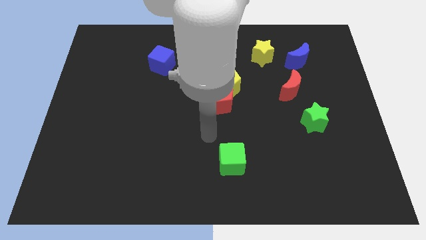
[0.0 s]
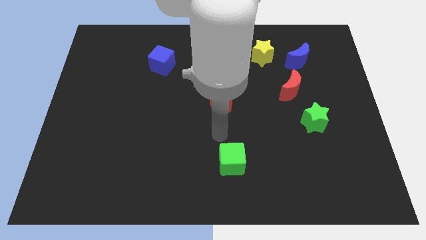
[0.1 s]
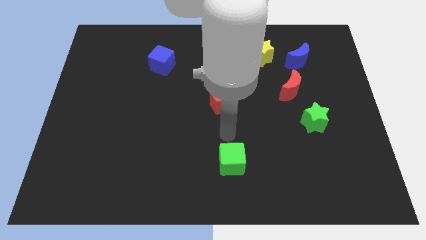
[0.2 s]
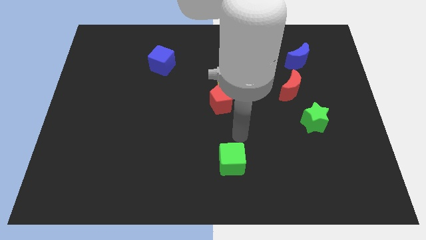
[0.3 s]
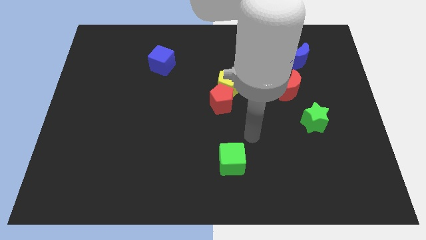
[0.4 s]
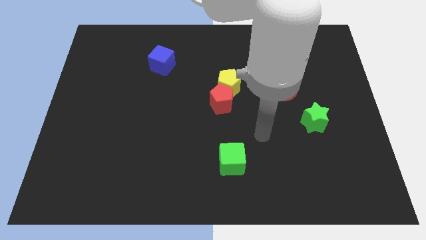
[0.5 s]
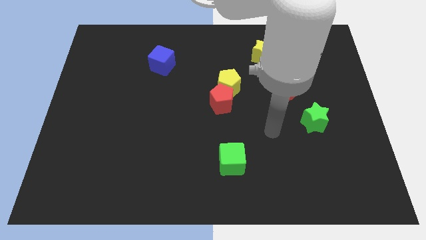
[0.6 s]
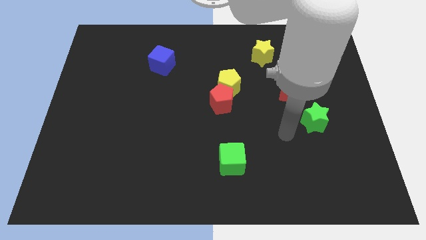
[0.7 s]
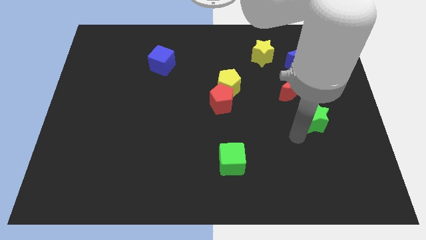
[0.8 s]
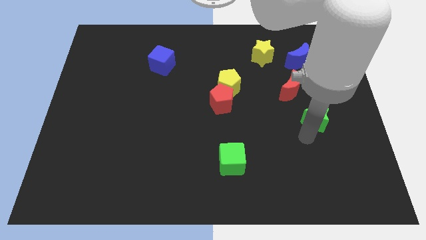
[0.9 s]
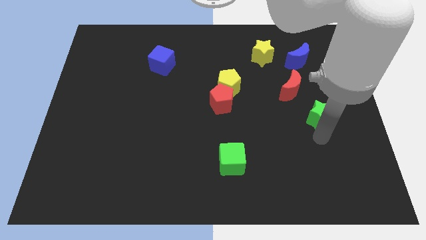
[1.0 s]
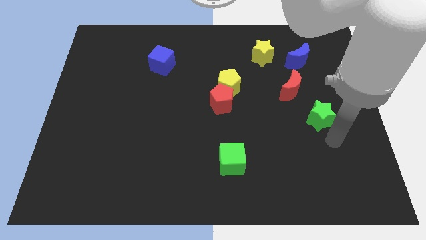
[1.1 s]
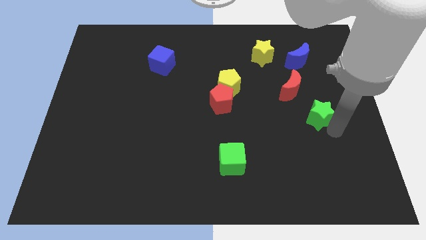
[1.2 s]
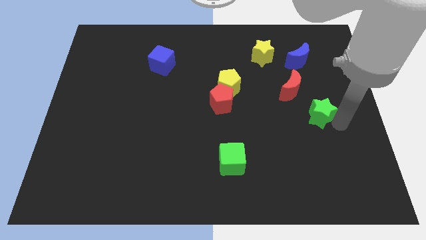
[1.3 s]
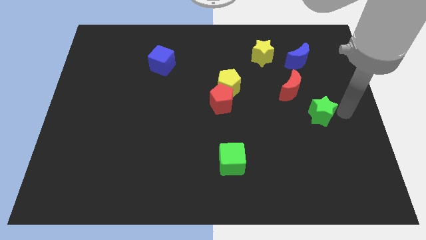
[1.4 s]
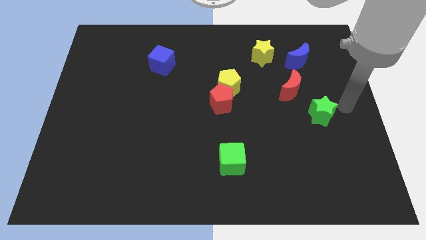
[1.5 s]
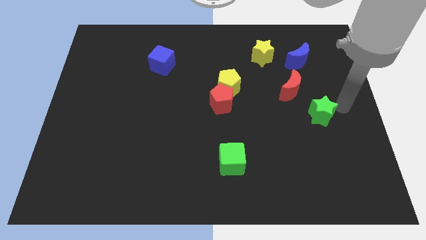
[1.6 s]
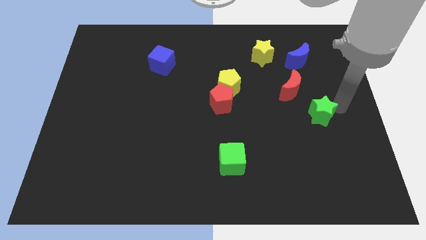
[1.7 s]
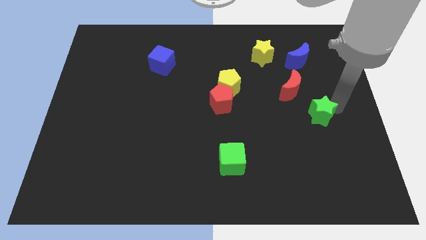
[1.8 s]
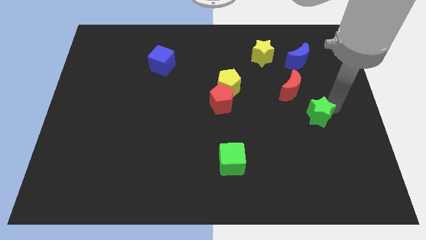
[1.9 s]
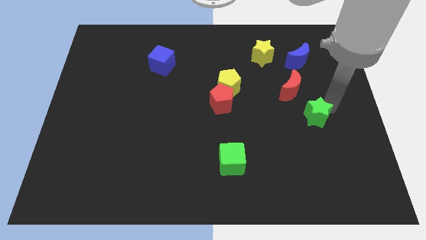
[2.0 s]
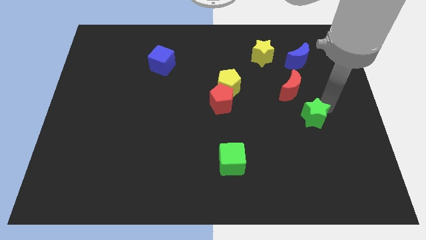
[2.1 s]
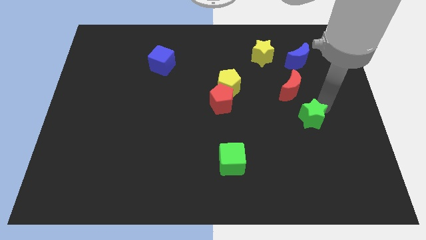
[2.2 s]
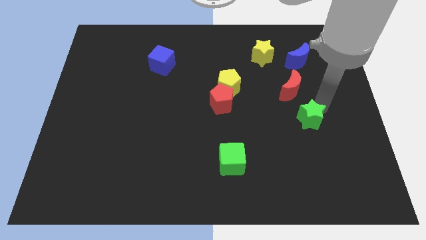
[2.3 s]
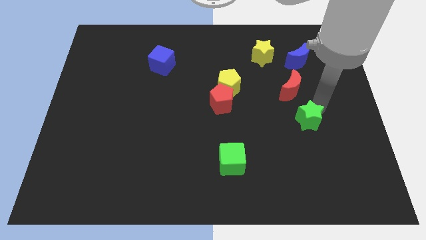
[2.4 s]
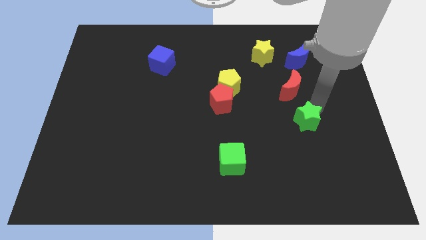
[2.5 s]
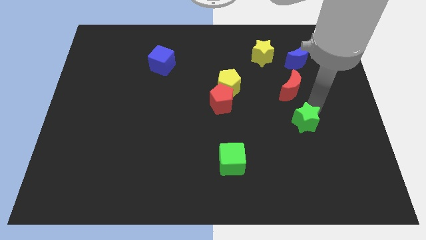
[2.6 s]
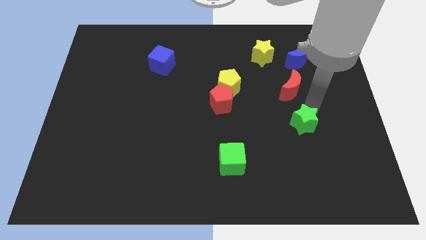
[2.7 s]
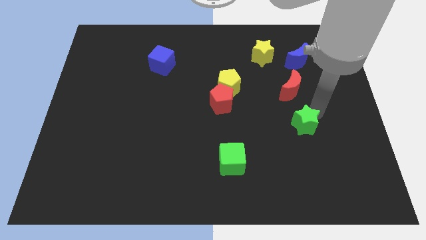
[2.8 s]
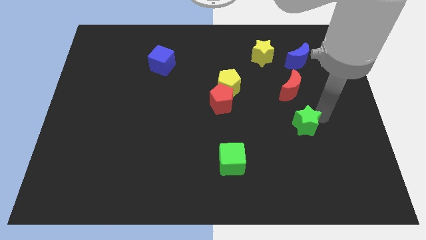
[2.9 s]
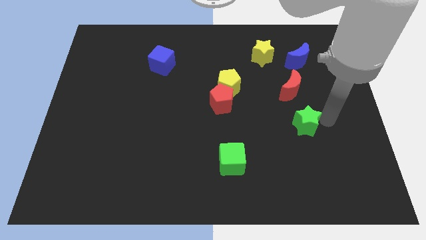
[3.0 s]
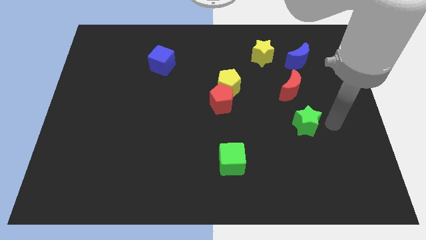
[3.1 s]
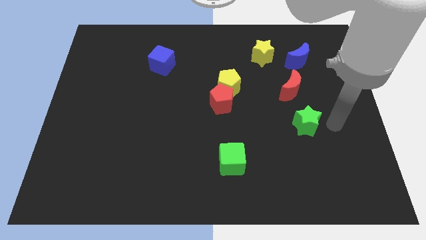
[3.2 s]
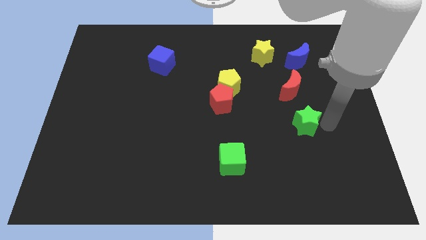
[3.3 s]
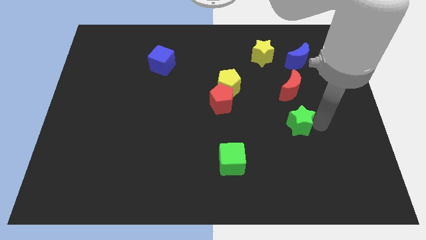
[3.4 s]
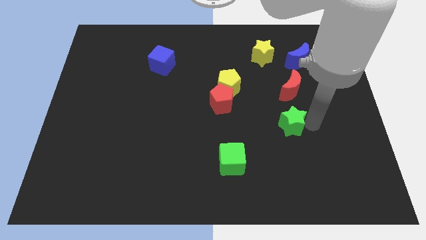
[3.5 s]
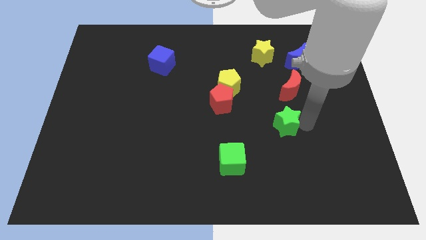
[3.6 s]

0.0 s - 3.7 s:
slightly move the green star left

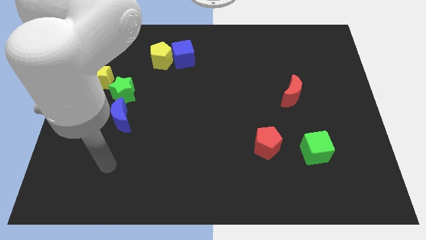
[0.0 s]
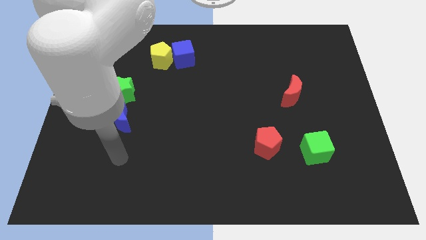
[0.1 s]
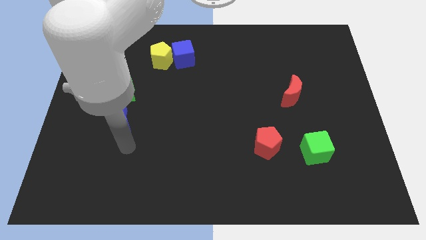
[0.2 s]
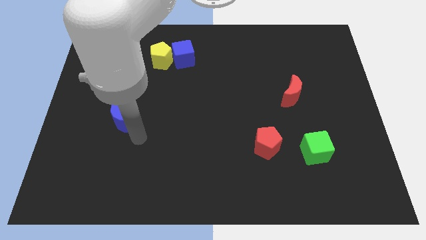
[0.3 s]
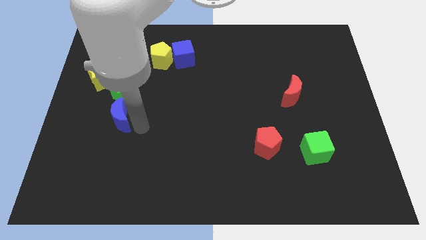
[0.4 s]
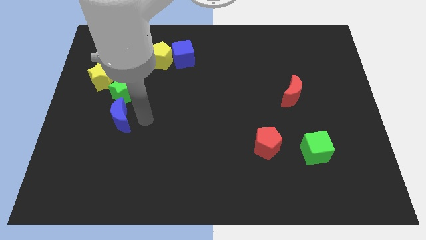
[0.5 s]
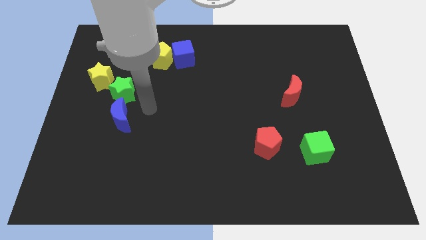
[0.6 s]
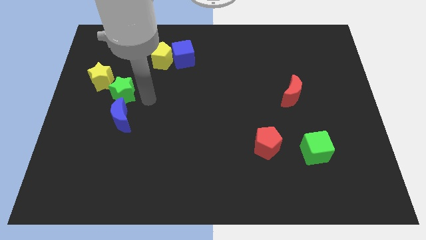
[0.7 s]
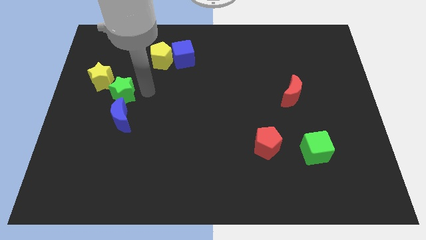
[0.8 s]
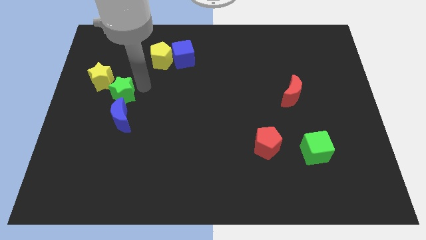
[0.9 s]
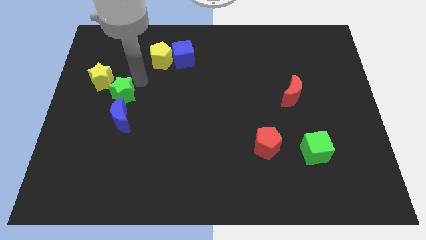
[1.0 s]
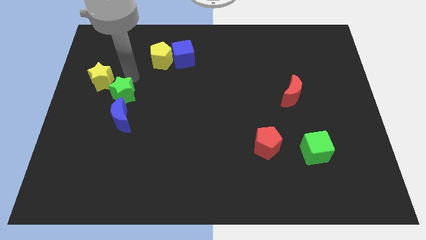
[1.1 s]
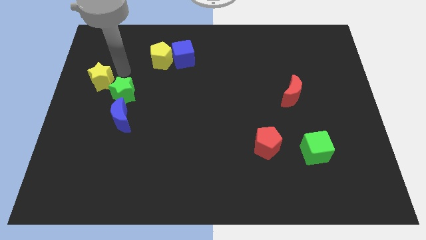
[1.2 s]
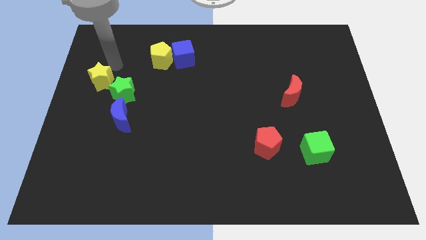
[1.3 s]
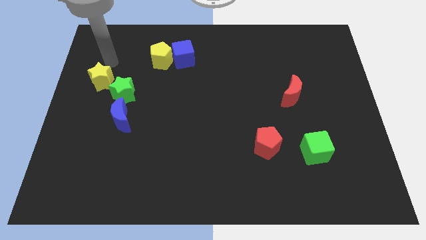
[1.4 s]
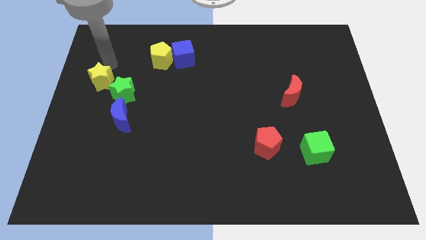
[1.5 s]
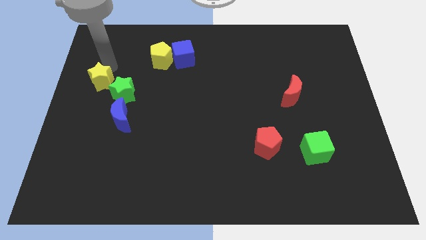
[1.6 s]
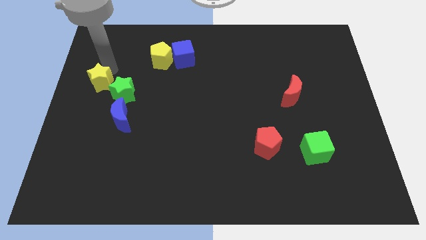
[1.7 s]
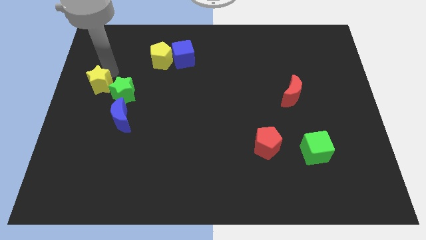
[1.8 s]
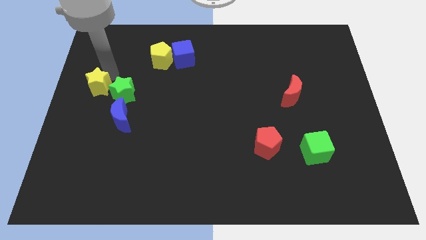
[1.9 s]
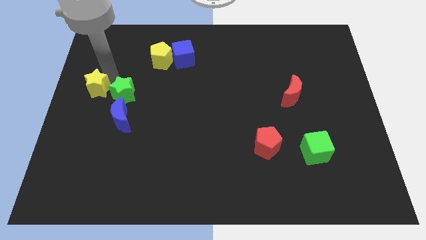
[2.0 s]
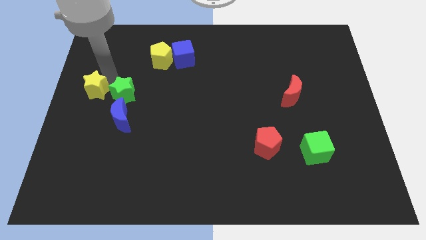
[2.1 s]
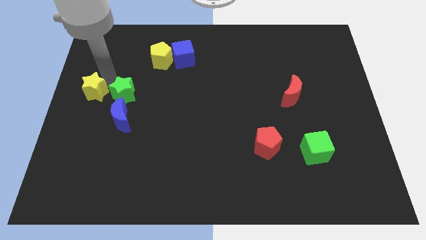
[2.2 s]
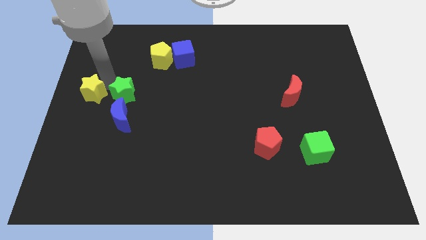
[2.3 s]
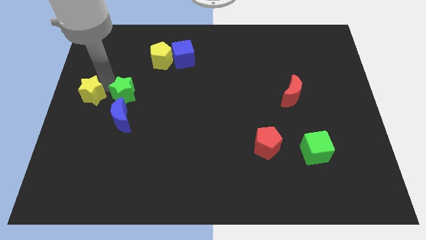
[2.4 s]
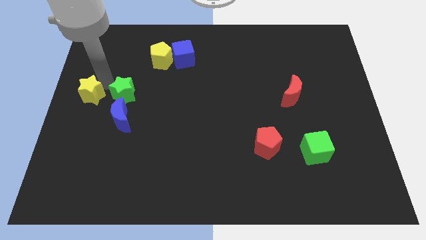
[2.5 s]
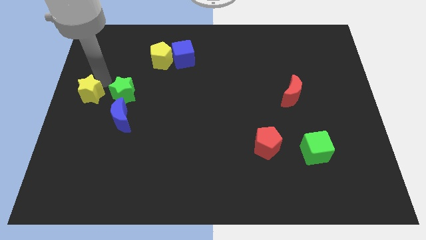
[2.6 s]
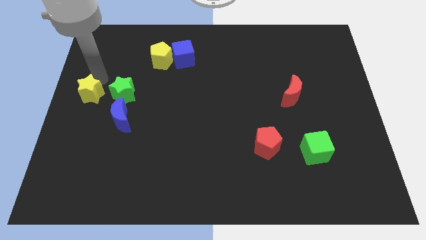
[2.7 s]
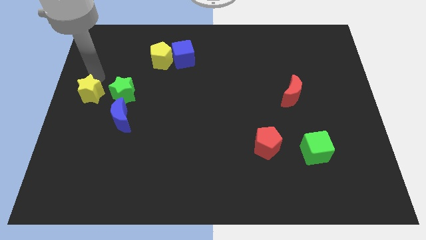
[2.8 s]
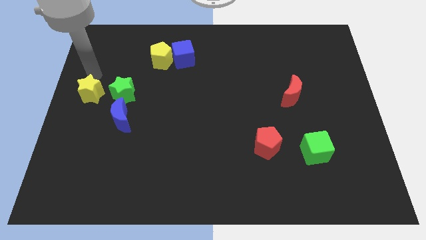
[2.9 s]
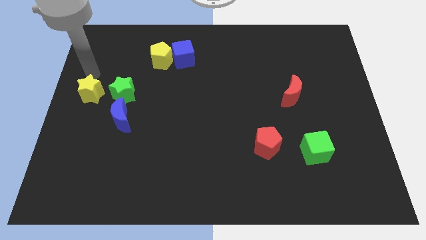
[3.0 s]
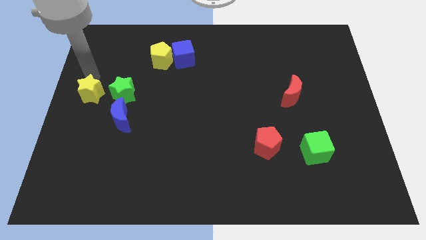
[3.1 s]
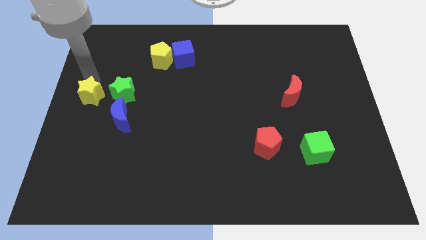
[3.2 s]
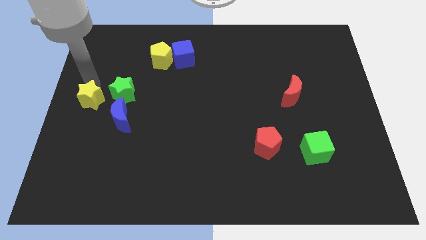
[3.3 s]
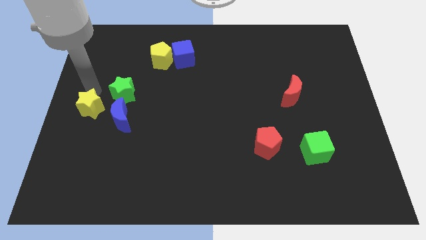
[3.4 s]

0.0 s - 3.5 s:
slightly push the yellow star down

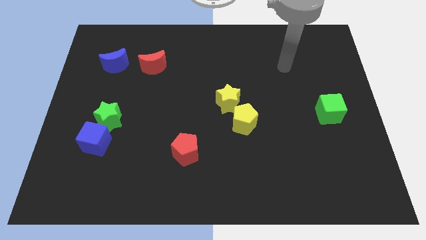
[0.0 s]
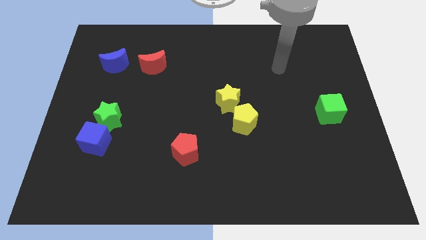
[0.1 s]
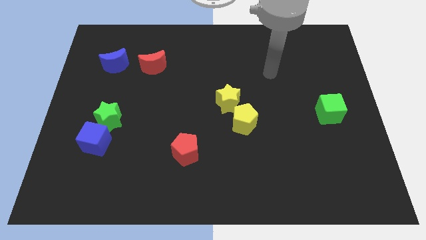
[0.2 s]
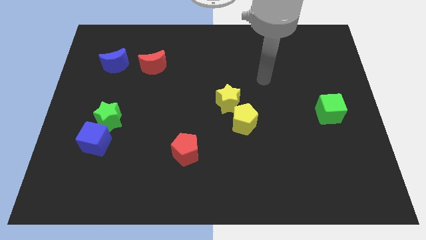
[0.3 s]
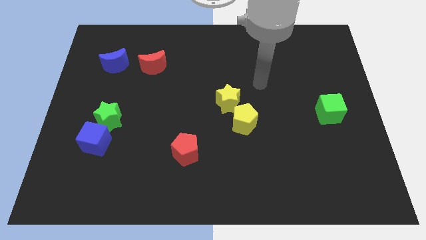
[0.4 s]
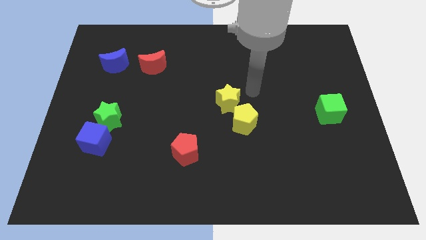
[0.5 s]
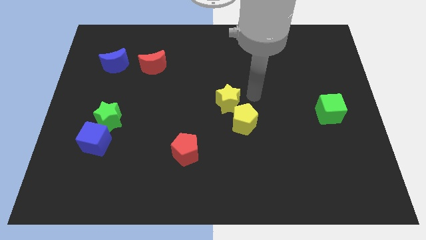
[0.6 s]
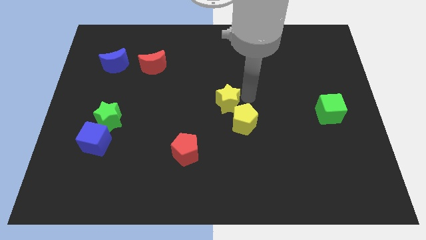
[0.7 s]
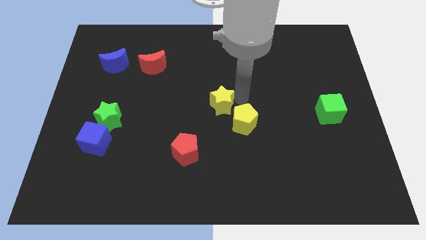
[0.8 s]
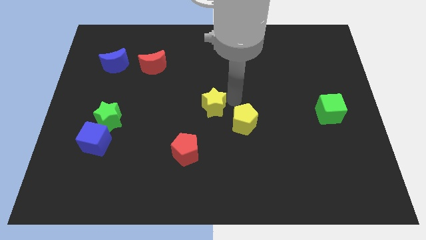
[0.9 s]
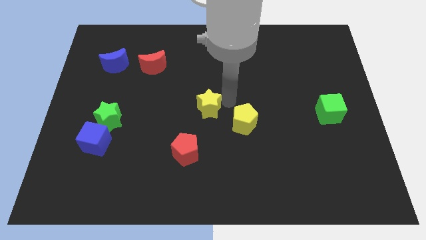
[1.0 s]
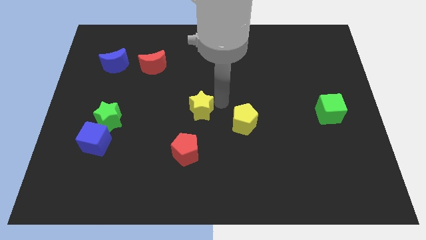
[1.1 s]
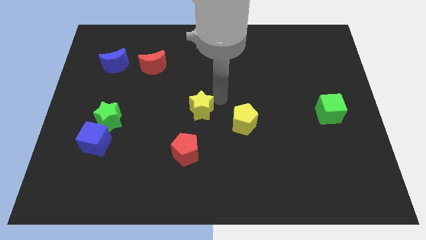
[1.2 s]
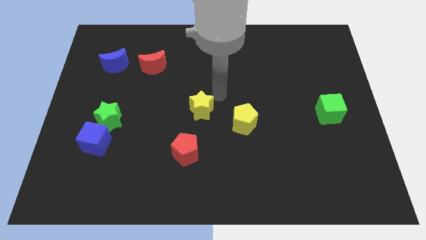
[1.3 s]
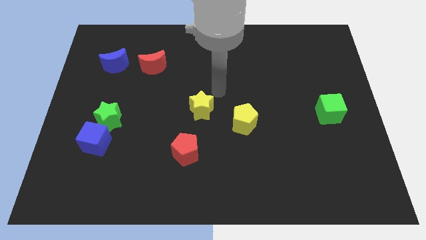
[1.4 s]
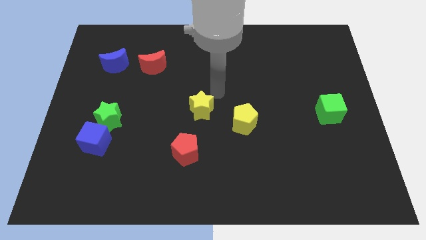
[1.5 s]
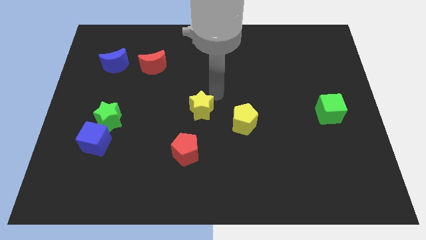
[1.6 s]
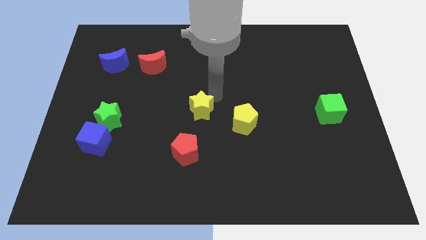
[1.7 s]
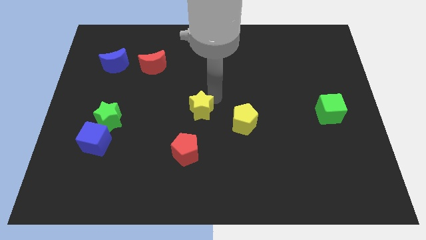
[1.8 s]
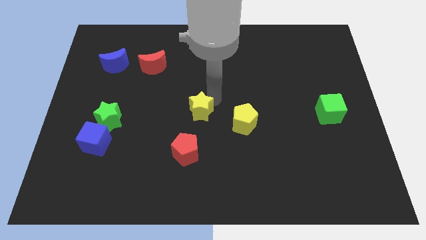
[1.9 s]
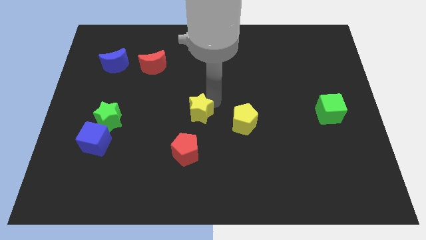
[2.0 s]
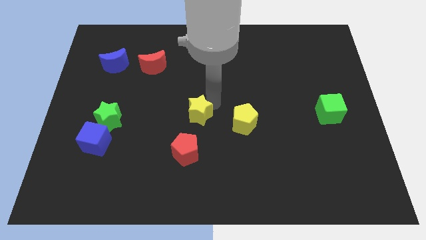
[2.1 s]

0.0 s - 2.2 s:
move the yellow star slightly diagonally downwards and to the left
